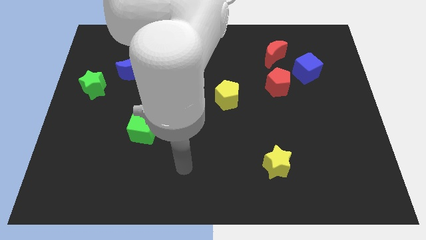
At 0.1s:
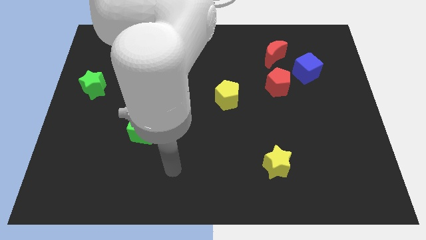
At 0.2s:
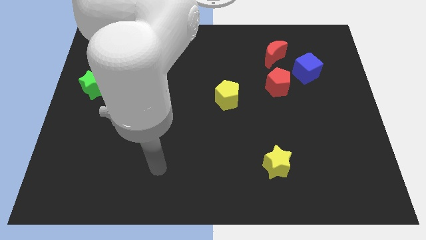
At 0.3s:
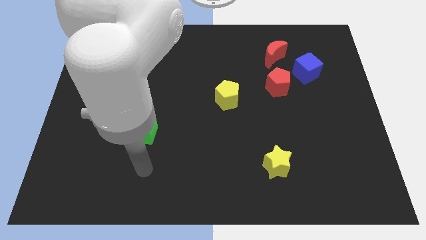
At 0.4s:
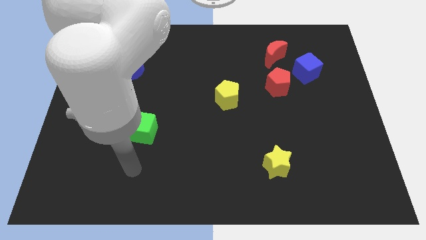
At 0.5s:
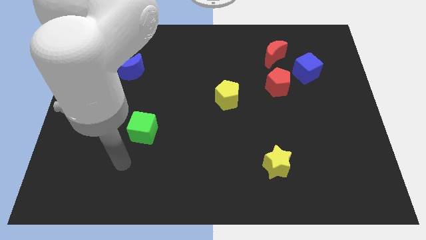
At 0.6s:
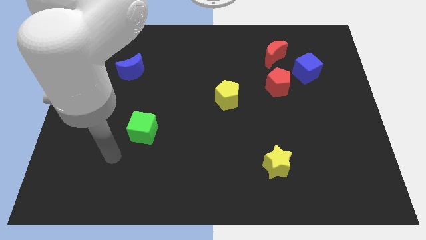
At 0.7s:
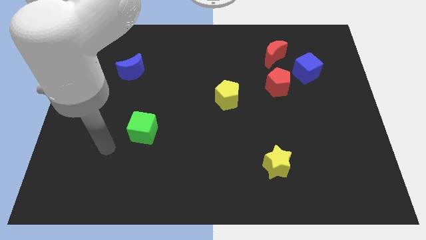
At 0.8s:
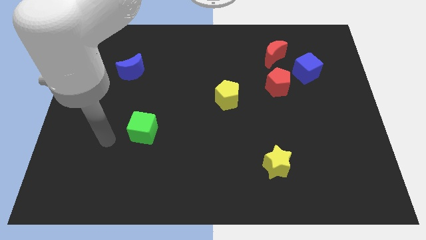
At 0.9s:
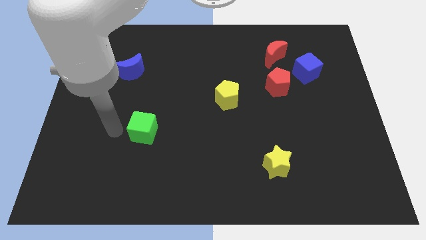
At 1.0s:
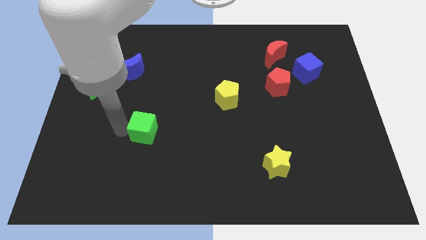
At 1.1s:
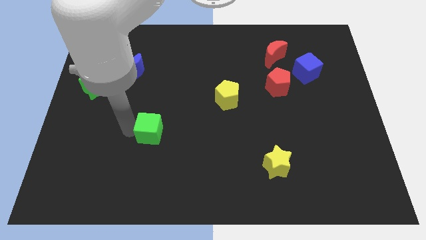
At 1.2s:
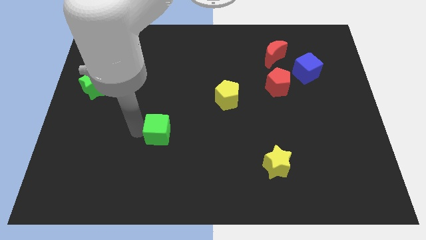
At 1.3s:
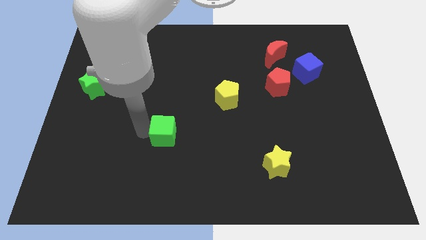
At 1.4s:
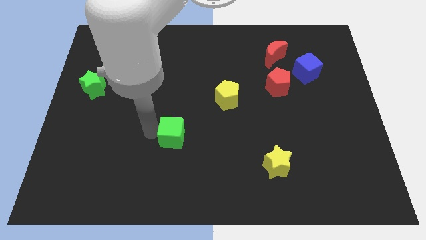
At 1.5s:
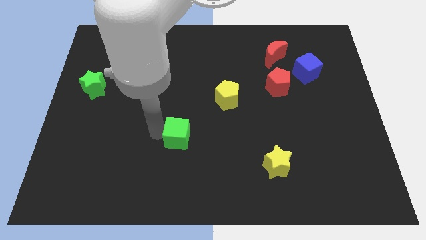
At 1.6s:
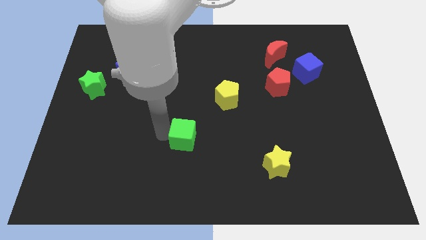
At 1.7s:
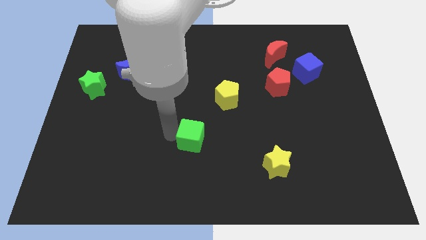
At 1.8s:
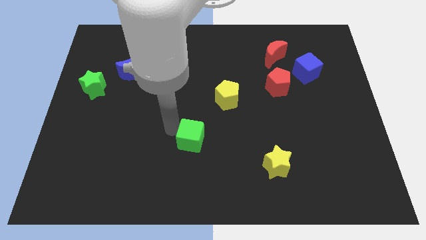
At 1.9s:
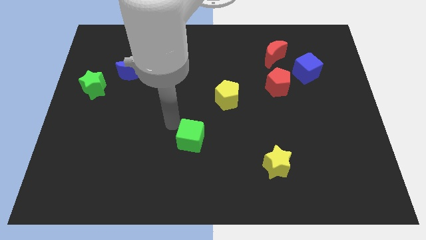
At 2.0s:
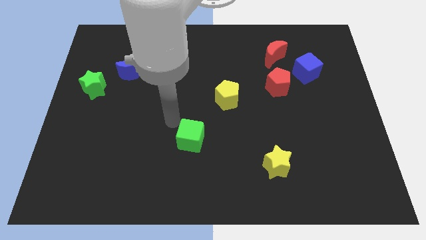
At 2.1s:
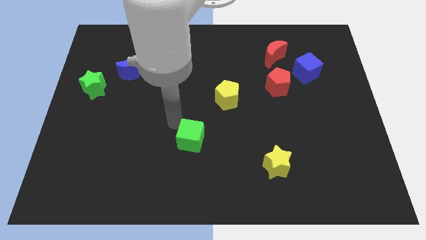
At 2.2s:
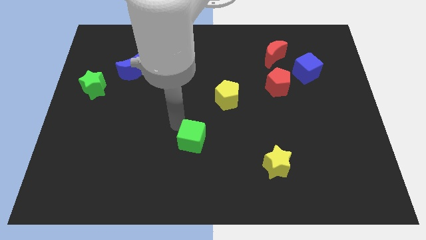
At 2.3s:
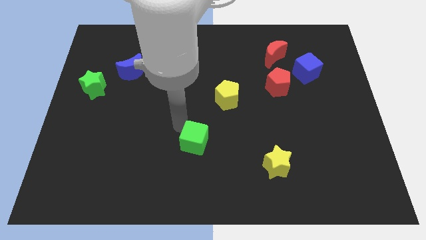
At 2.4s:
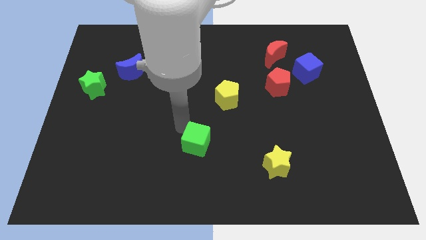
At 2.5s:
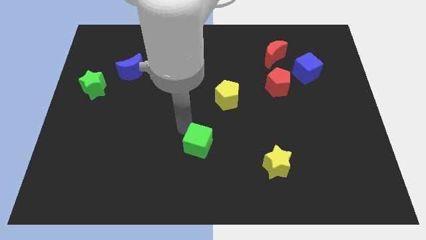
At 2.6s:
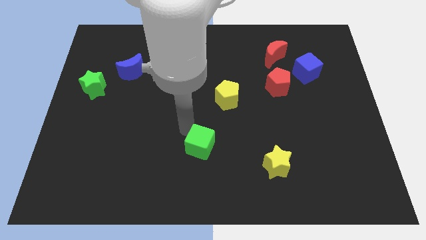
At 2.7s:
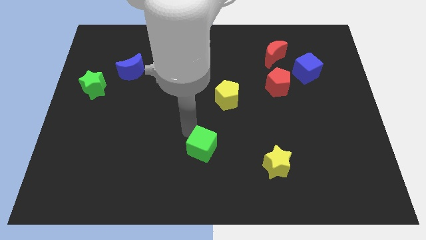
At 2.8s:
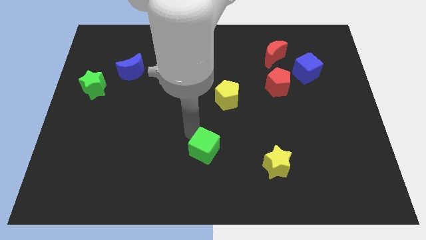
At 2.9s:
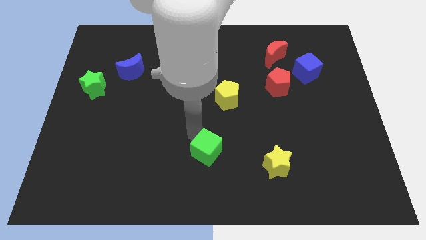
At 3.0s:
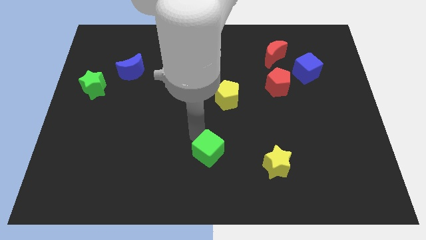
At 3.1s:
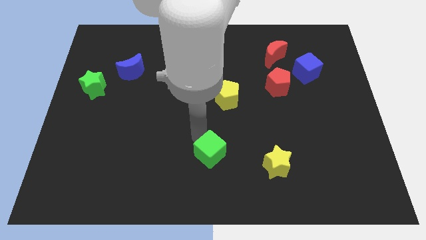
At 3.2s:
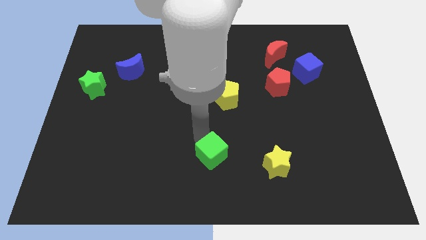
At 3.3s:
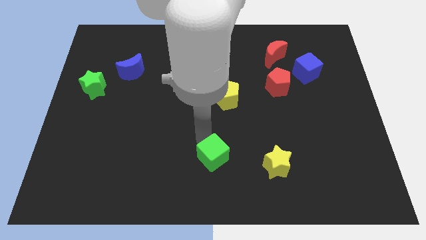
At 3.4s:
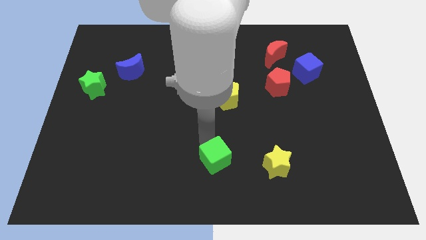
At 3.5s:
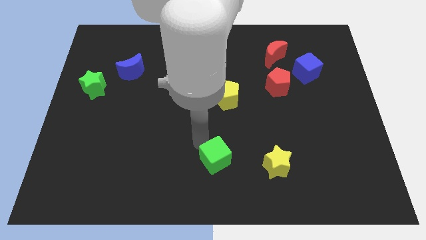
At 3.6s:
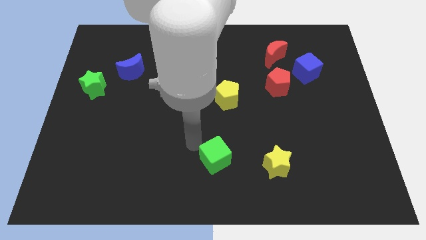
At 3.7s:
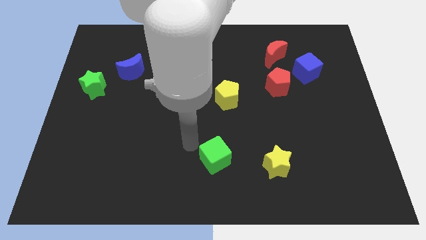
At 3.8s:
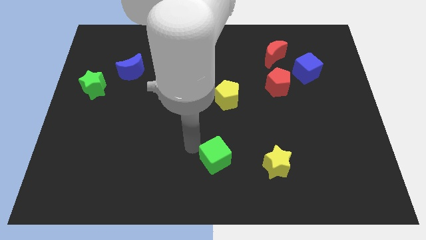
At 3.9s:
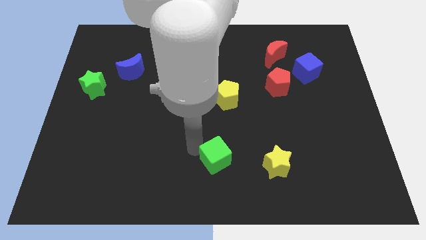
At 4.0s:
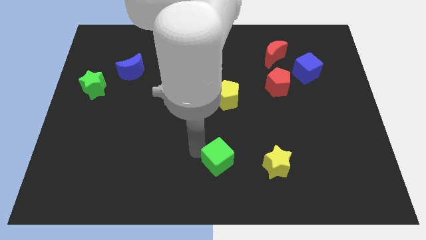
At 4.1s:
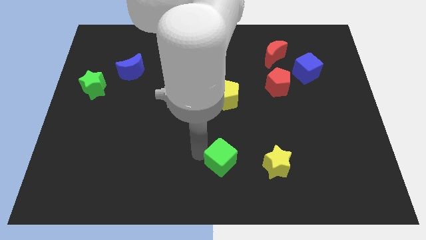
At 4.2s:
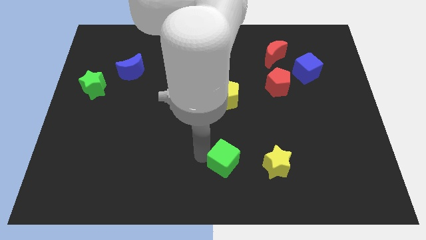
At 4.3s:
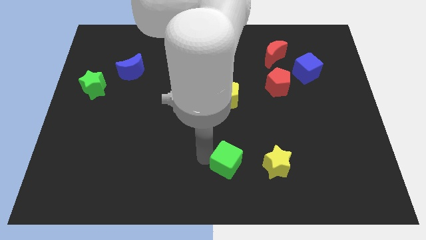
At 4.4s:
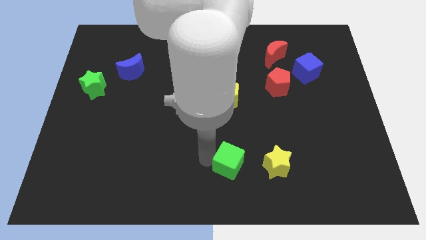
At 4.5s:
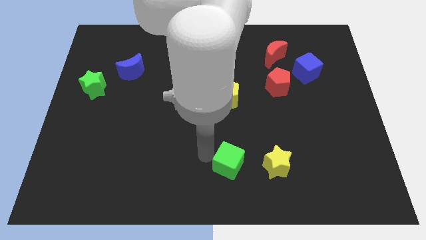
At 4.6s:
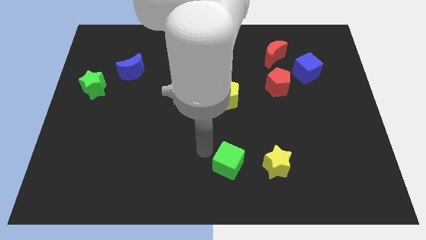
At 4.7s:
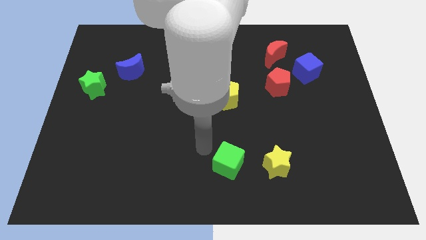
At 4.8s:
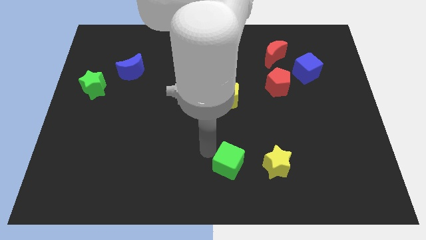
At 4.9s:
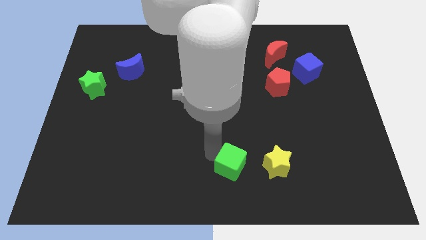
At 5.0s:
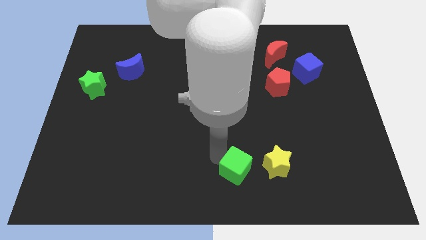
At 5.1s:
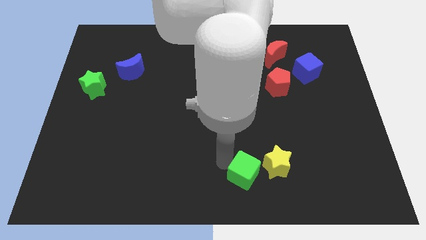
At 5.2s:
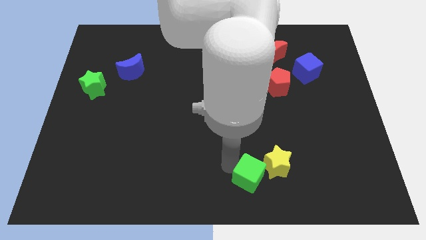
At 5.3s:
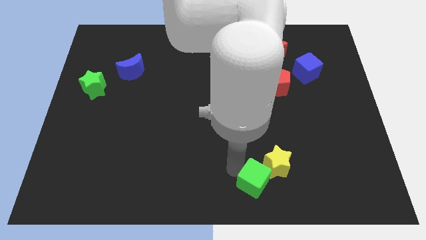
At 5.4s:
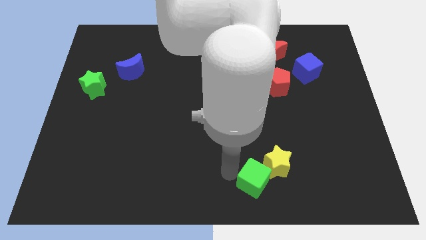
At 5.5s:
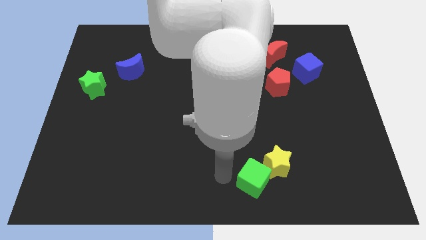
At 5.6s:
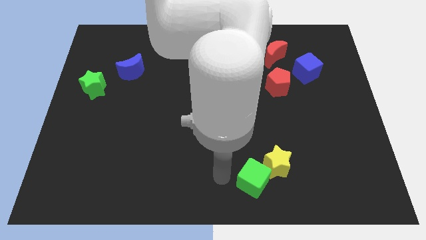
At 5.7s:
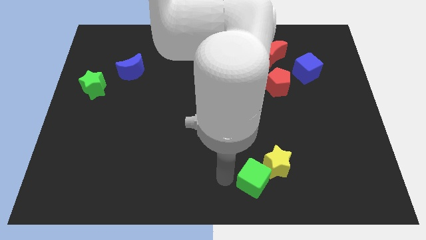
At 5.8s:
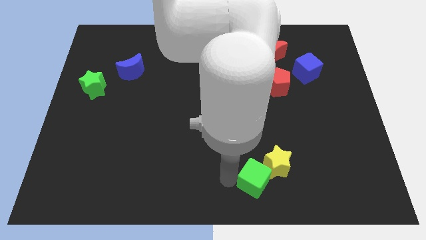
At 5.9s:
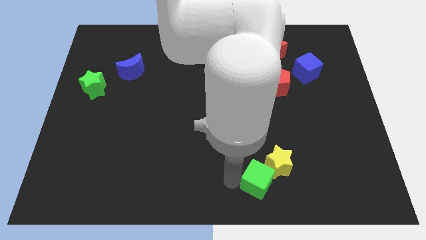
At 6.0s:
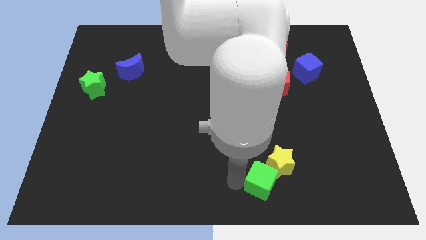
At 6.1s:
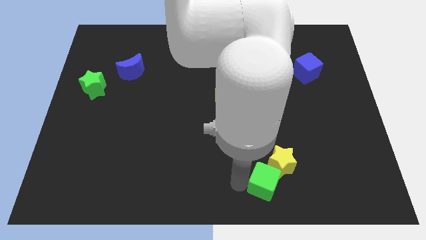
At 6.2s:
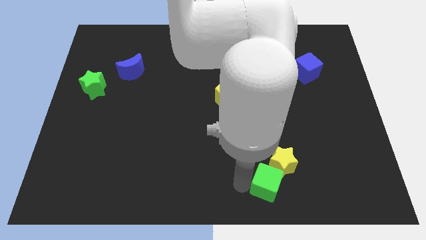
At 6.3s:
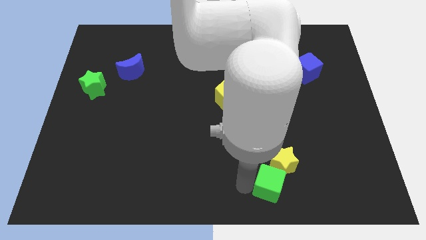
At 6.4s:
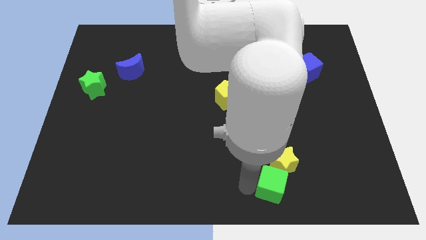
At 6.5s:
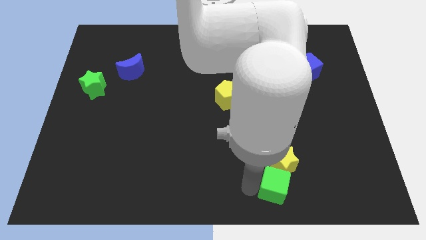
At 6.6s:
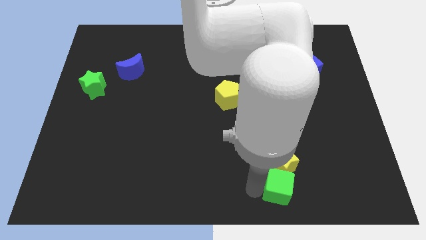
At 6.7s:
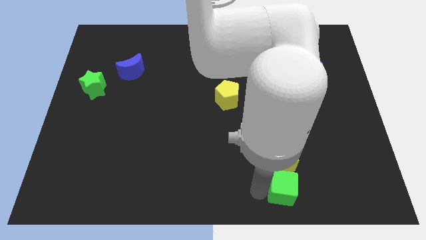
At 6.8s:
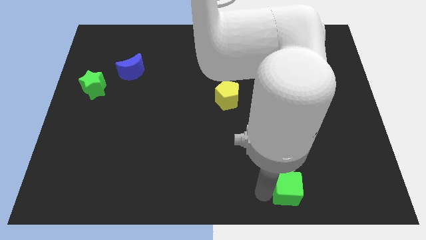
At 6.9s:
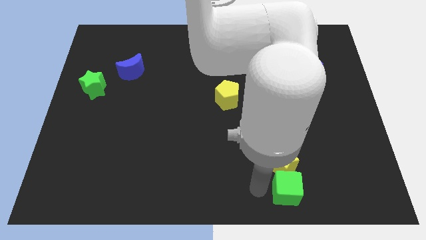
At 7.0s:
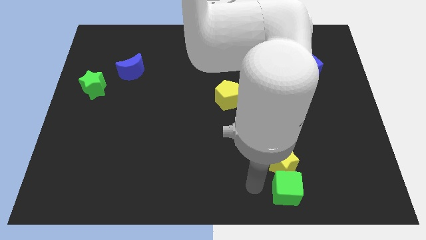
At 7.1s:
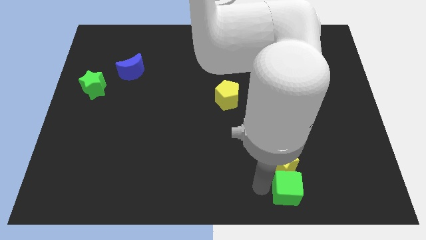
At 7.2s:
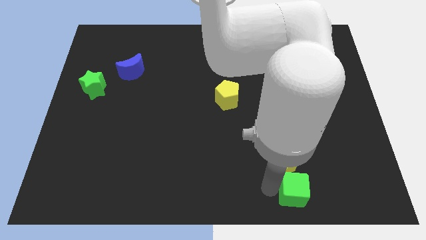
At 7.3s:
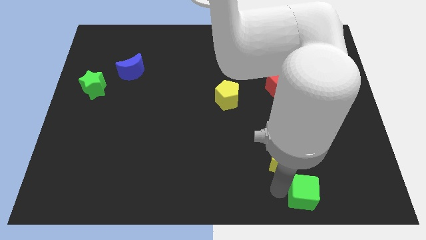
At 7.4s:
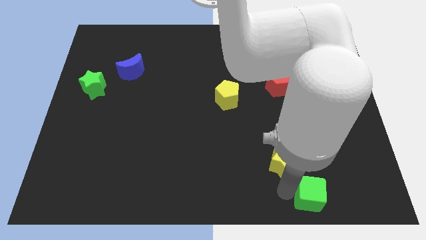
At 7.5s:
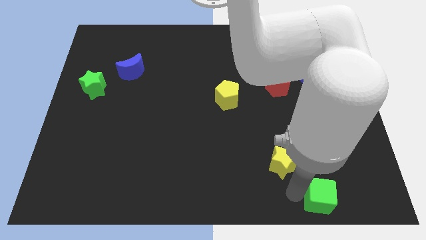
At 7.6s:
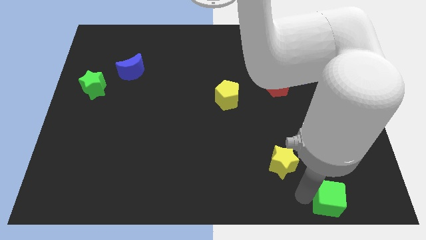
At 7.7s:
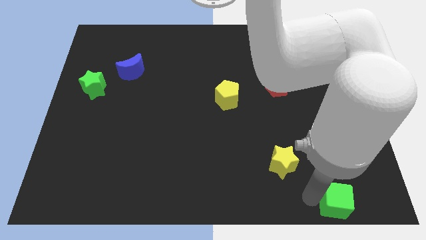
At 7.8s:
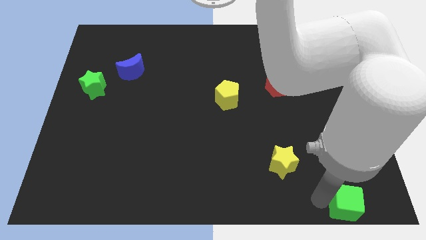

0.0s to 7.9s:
push the green cube to the lower right corner
